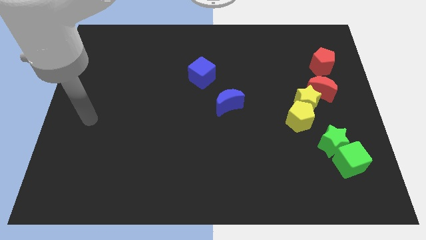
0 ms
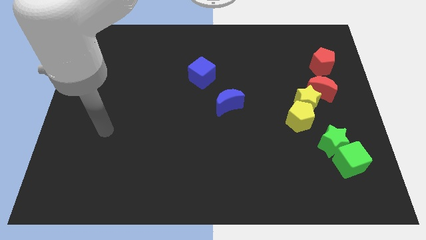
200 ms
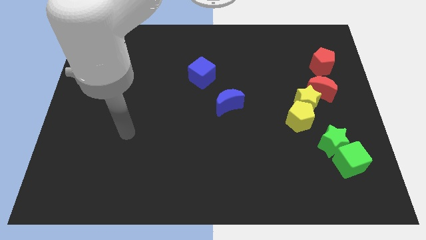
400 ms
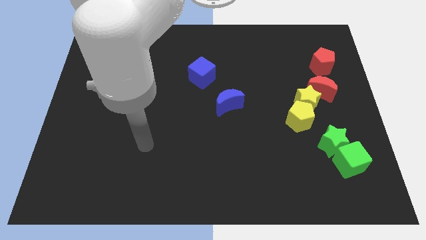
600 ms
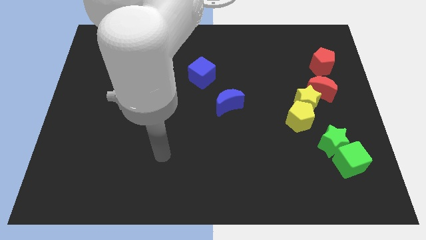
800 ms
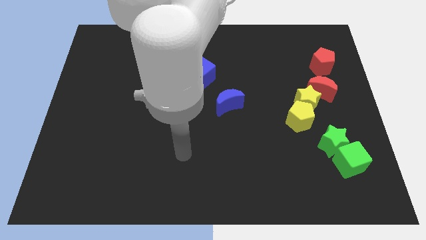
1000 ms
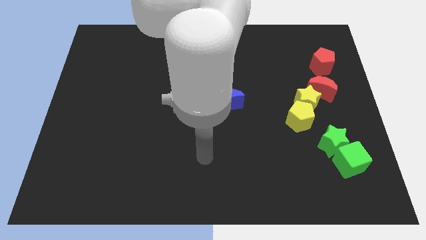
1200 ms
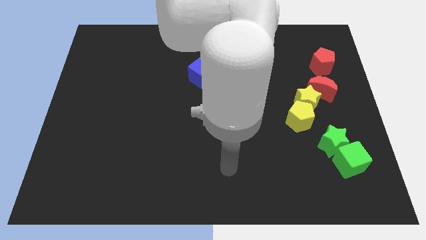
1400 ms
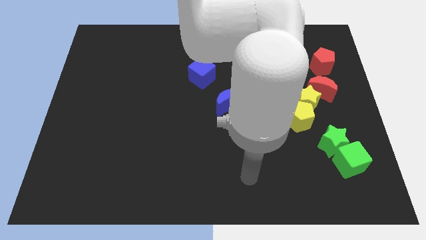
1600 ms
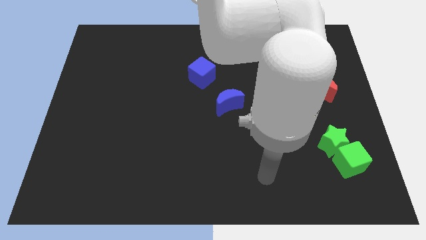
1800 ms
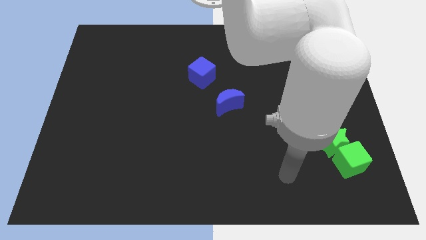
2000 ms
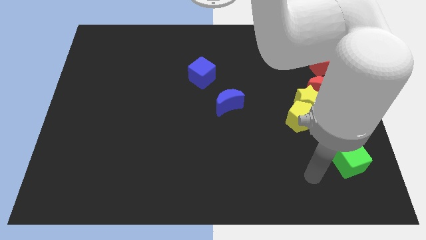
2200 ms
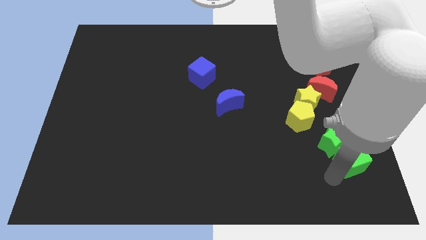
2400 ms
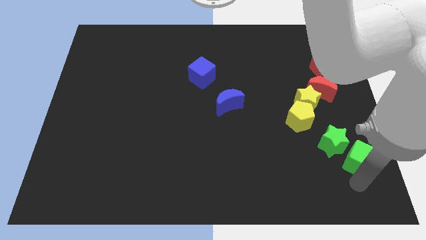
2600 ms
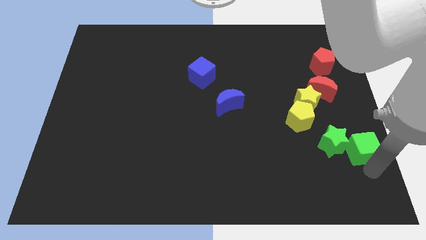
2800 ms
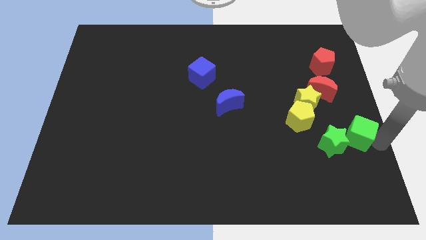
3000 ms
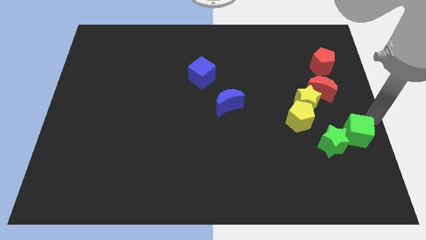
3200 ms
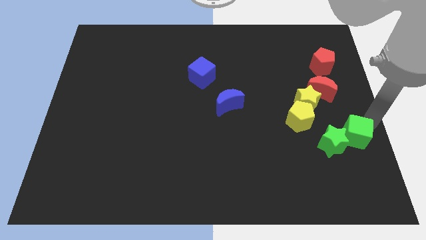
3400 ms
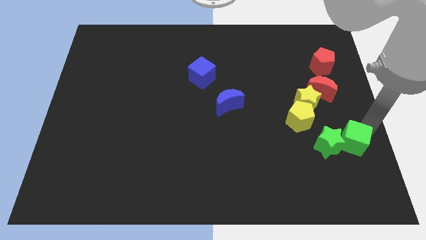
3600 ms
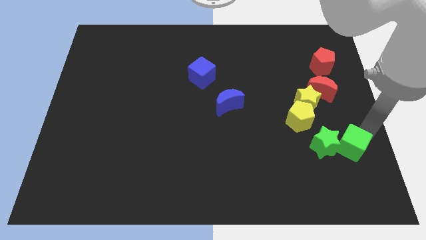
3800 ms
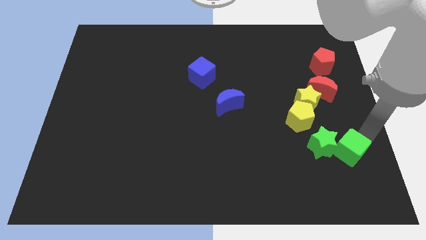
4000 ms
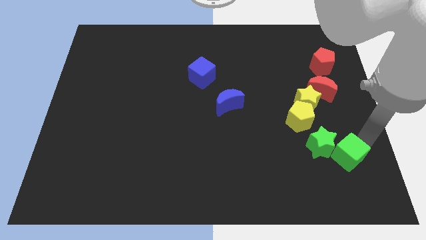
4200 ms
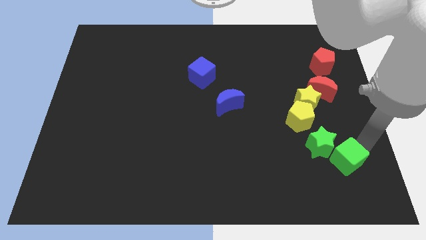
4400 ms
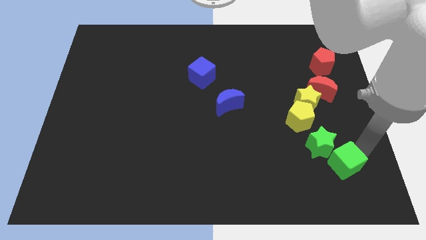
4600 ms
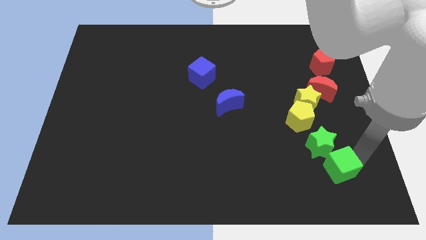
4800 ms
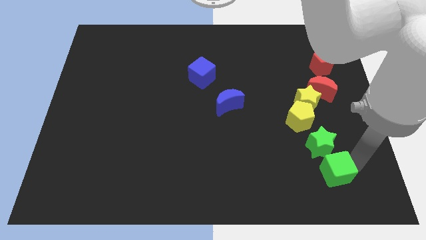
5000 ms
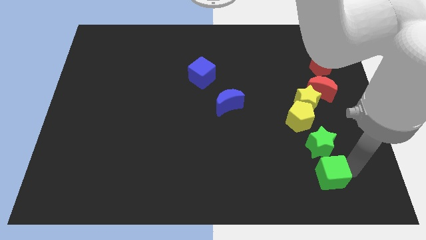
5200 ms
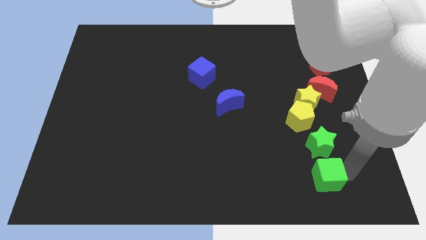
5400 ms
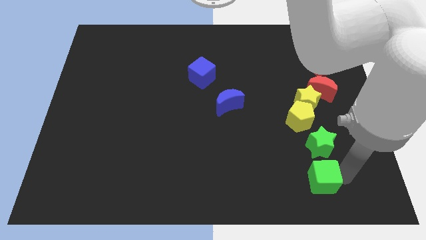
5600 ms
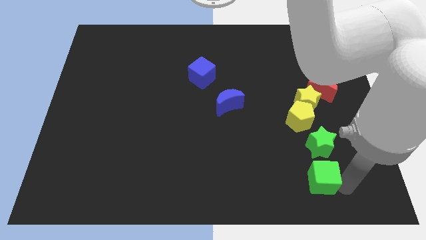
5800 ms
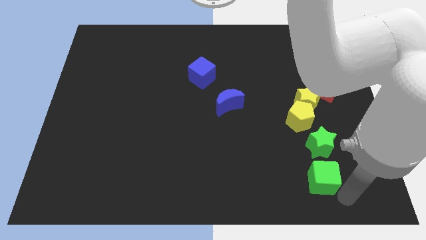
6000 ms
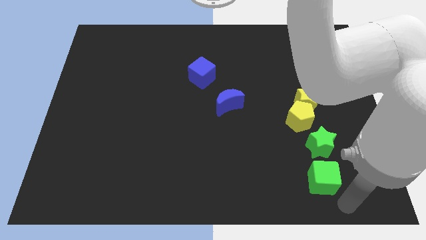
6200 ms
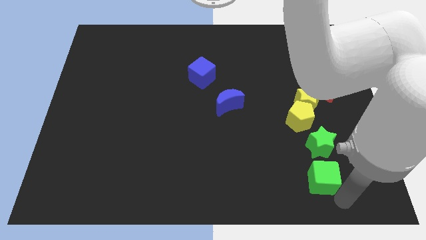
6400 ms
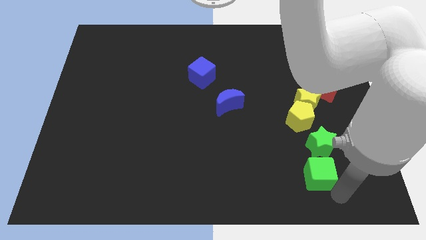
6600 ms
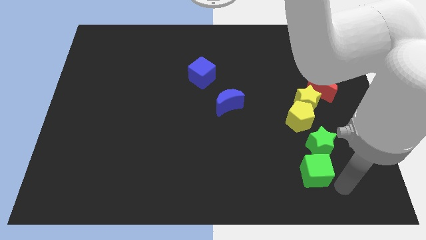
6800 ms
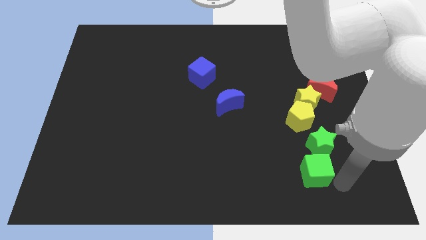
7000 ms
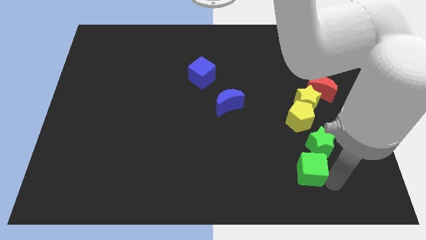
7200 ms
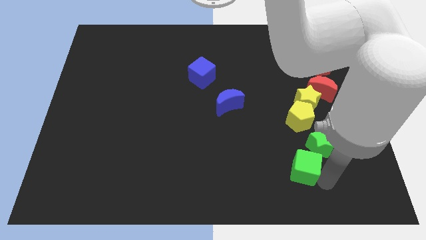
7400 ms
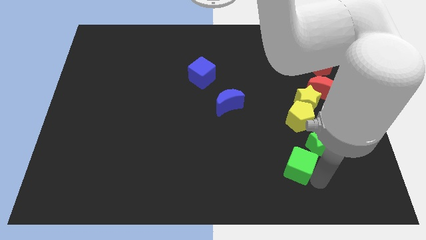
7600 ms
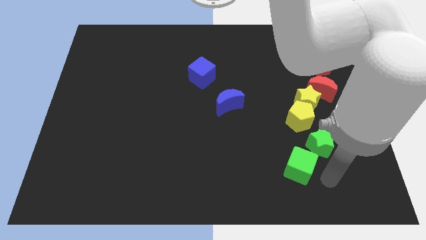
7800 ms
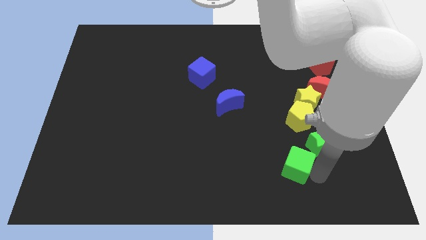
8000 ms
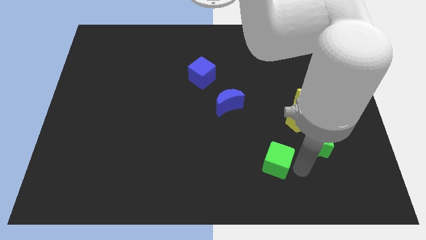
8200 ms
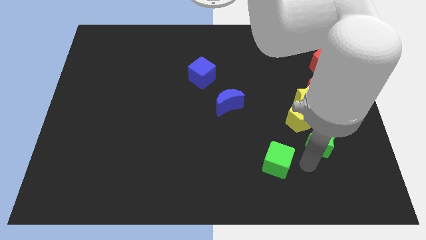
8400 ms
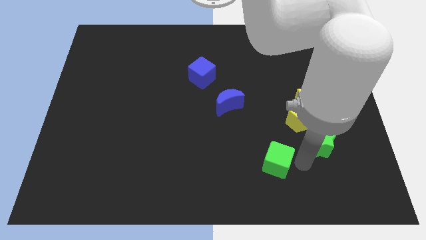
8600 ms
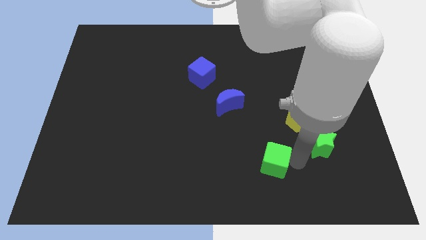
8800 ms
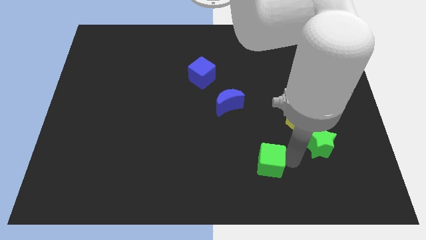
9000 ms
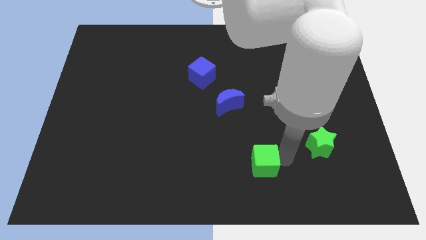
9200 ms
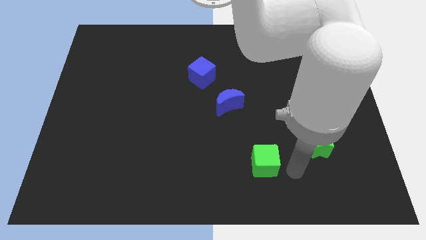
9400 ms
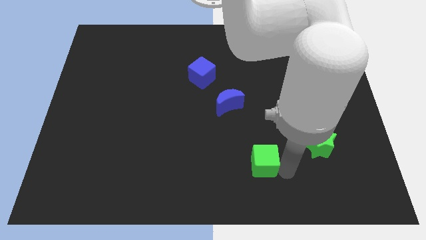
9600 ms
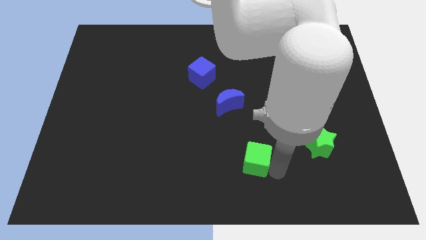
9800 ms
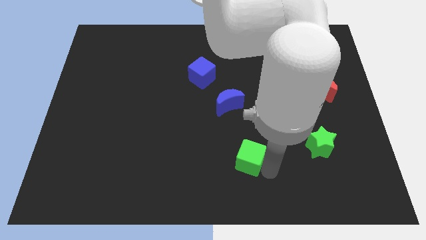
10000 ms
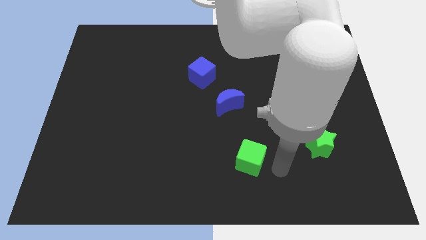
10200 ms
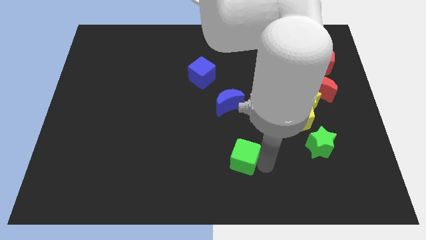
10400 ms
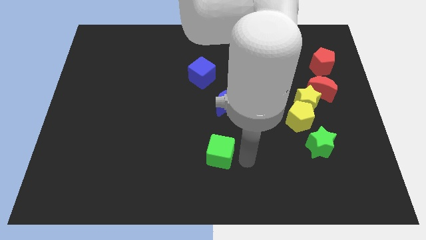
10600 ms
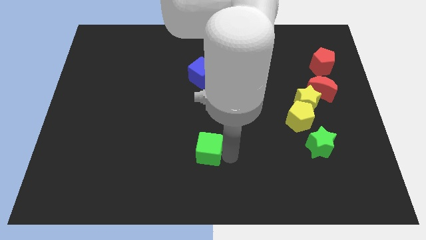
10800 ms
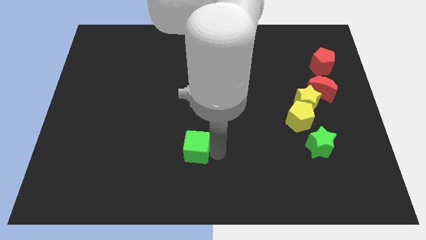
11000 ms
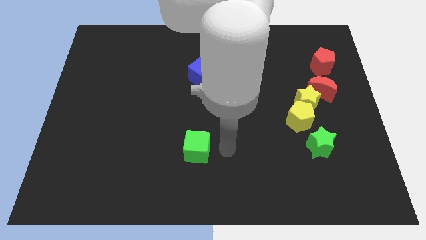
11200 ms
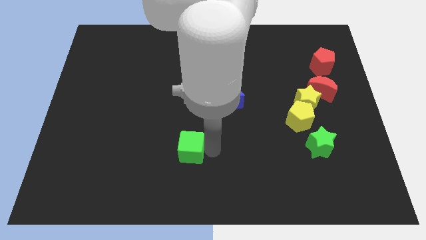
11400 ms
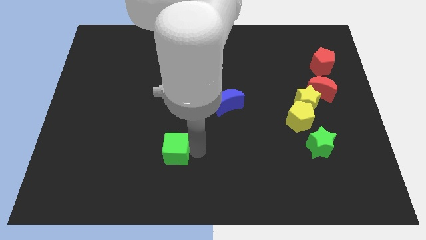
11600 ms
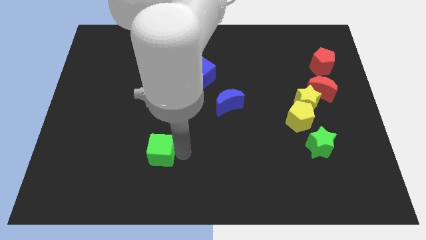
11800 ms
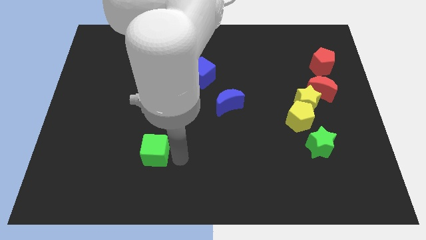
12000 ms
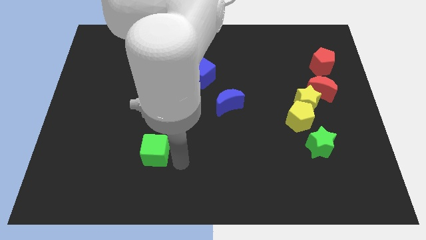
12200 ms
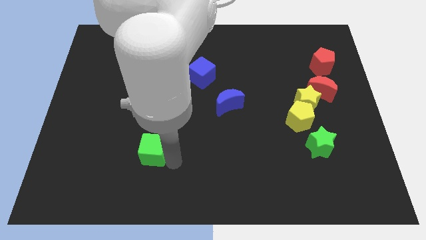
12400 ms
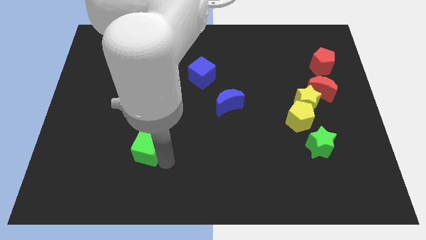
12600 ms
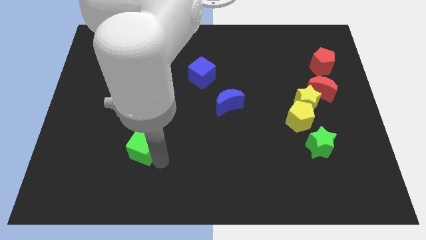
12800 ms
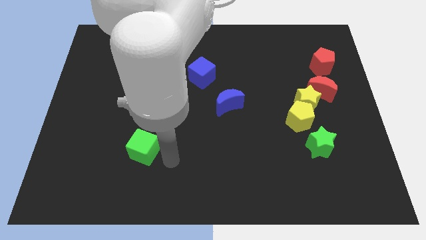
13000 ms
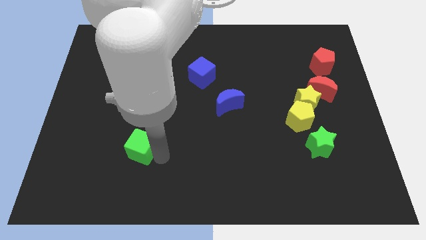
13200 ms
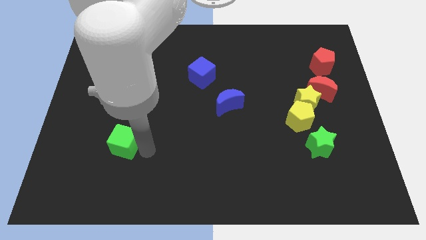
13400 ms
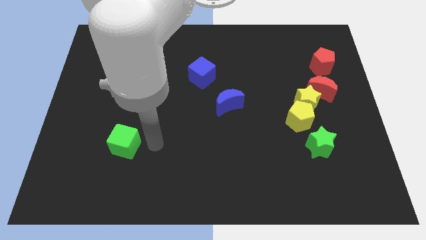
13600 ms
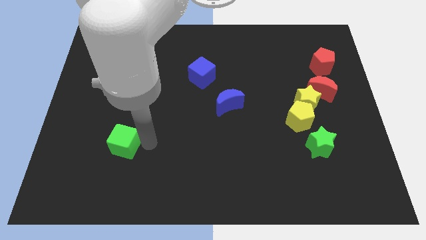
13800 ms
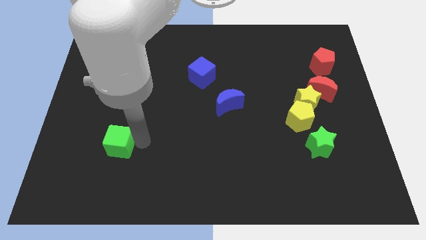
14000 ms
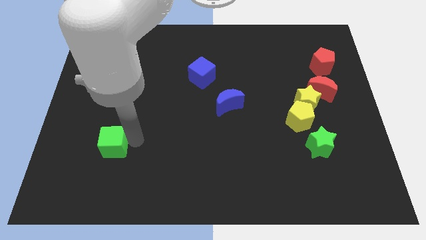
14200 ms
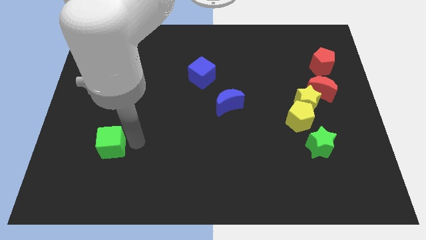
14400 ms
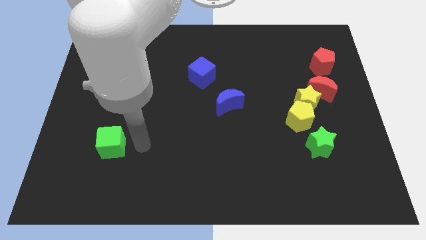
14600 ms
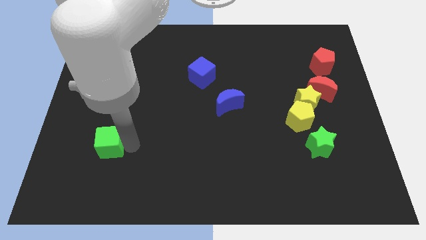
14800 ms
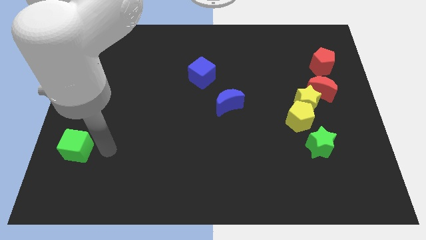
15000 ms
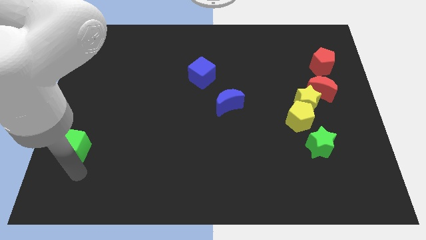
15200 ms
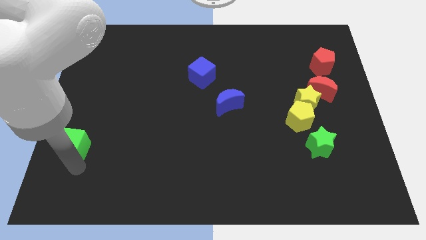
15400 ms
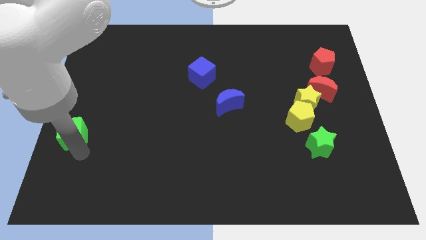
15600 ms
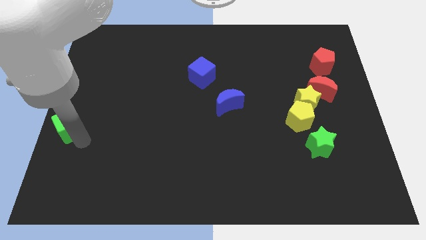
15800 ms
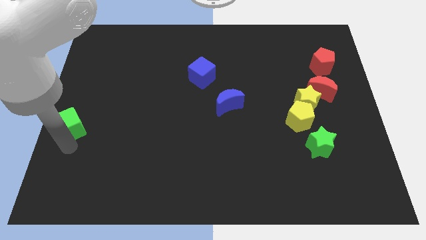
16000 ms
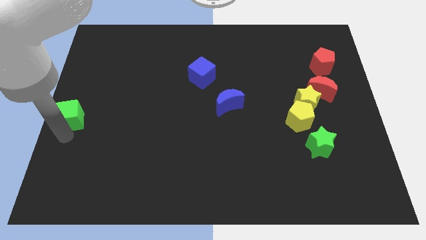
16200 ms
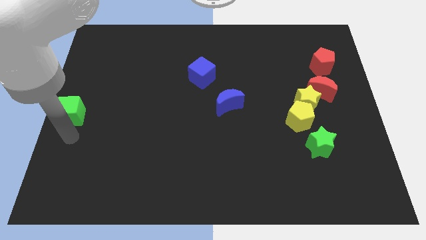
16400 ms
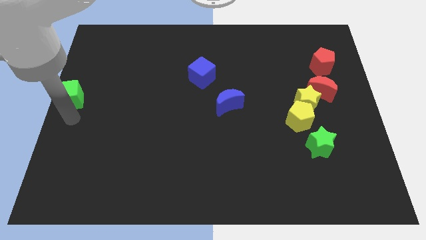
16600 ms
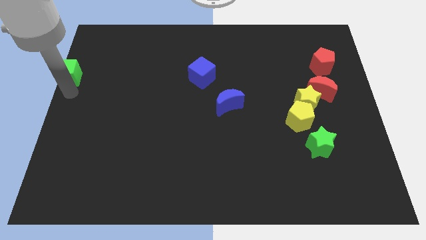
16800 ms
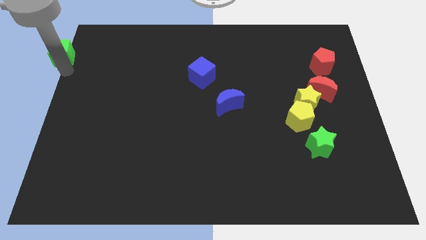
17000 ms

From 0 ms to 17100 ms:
put the green cube to the upper left corner
